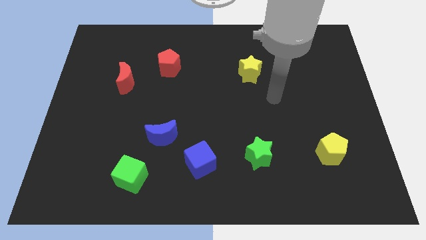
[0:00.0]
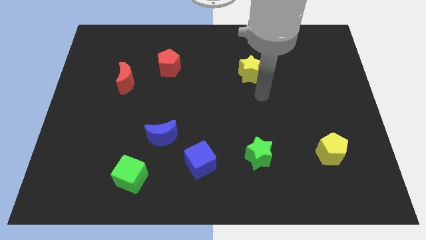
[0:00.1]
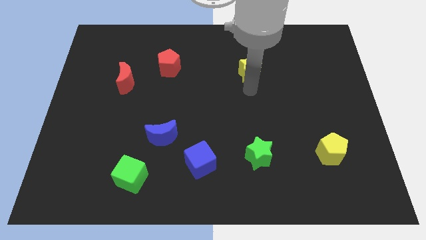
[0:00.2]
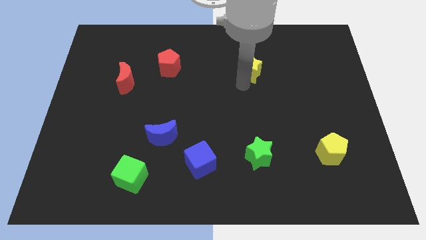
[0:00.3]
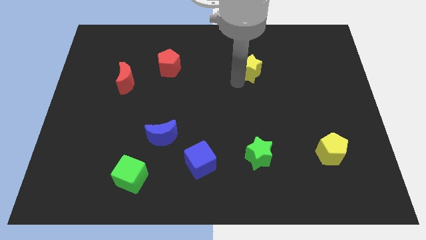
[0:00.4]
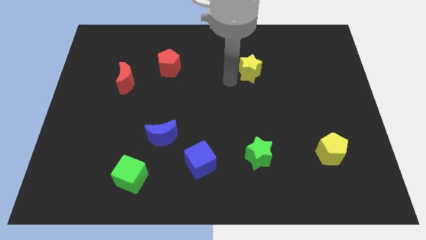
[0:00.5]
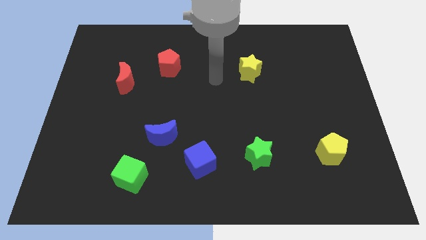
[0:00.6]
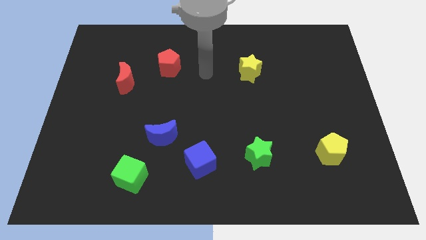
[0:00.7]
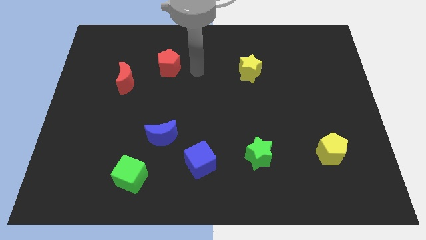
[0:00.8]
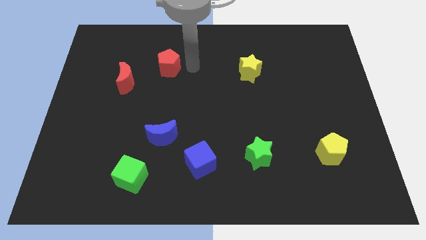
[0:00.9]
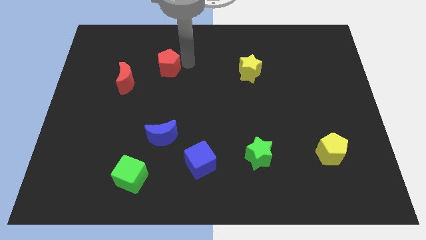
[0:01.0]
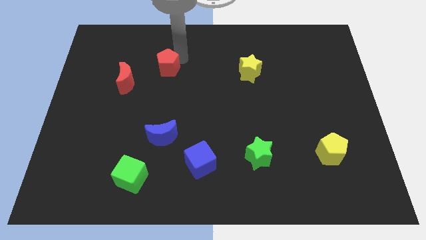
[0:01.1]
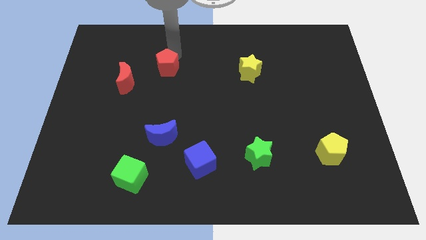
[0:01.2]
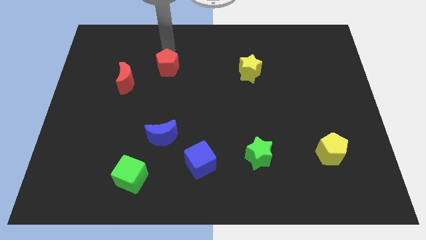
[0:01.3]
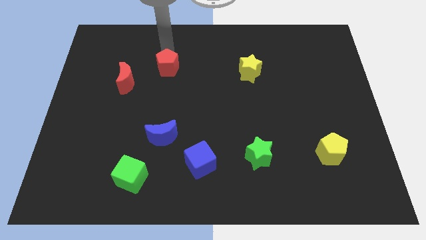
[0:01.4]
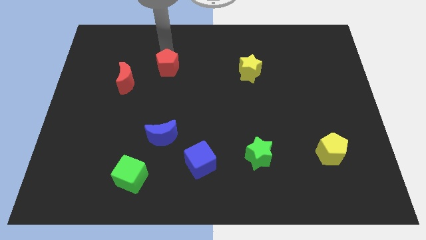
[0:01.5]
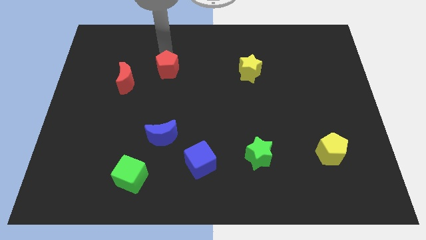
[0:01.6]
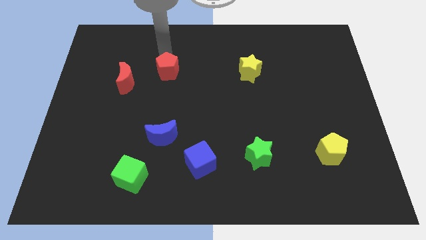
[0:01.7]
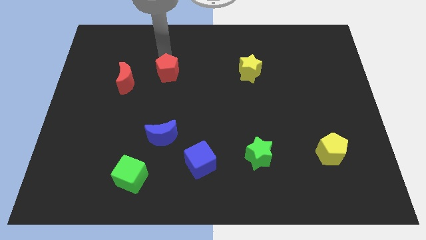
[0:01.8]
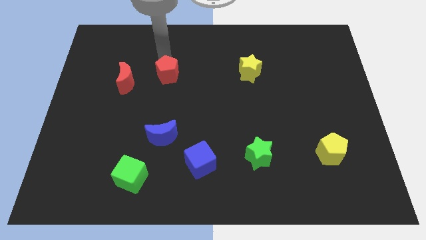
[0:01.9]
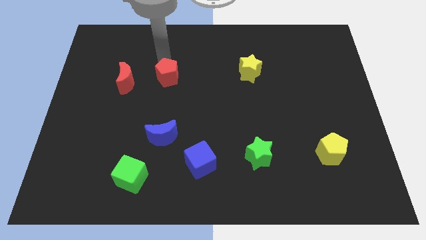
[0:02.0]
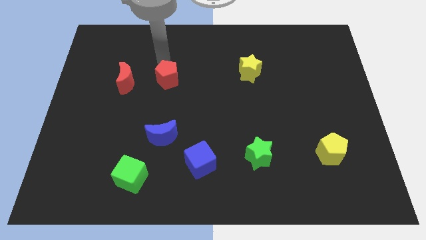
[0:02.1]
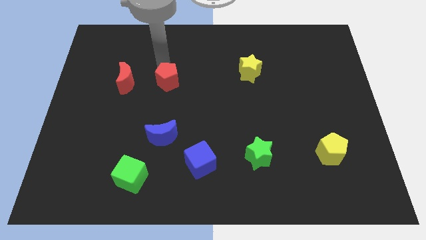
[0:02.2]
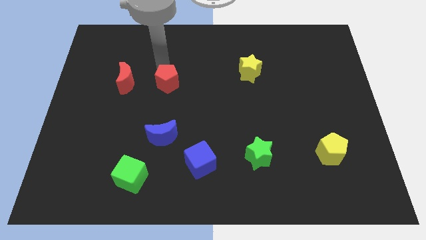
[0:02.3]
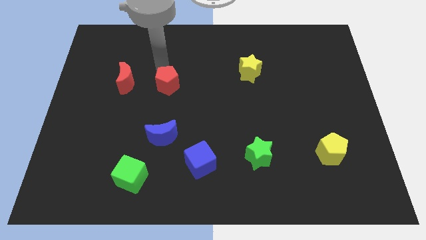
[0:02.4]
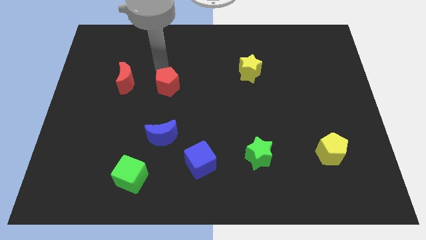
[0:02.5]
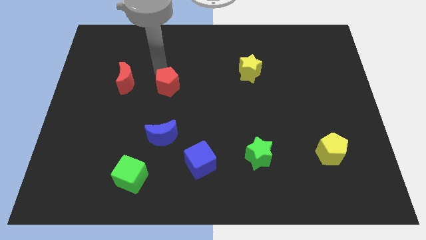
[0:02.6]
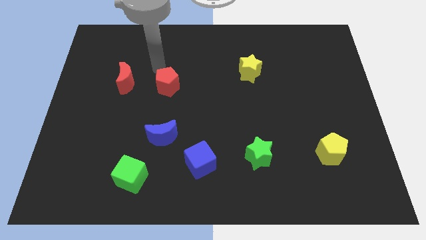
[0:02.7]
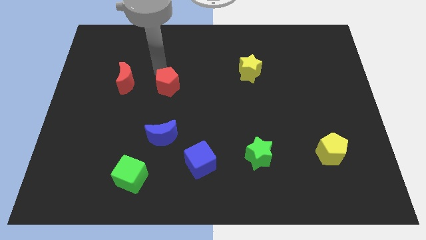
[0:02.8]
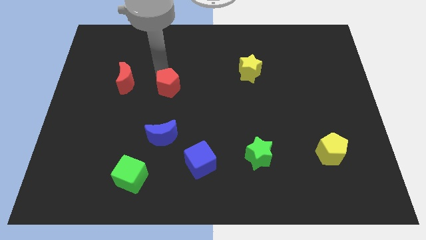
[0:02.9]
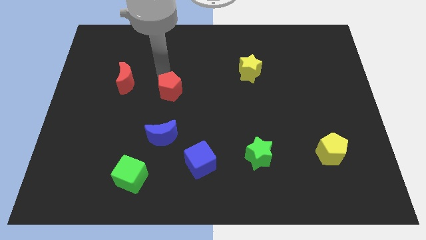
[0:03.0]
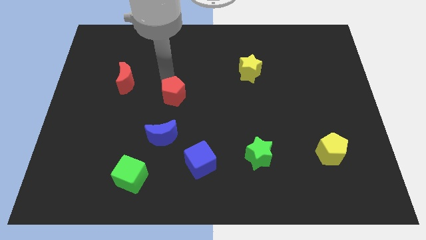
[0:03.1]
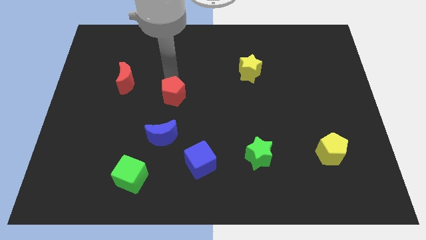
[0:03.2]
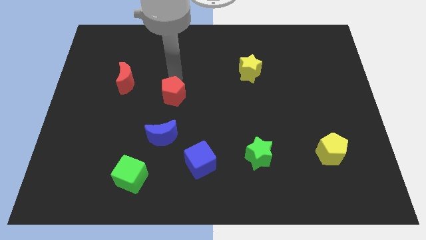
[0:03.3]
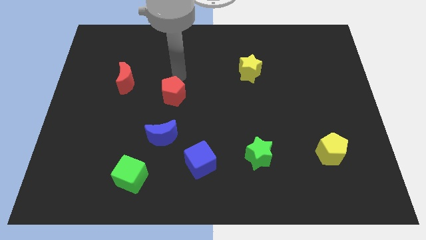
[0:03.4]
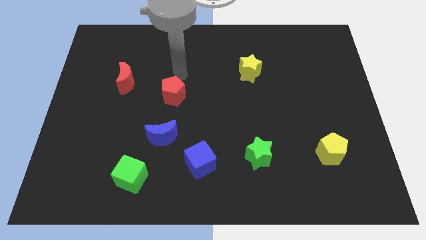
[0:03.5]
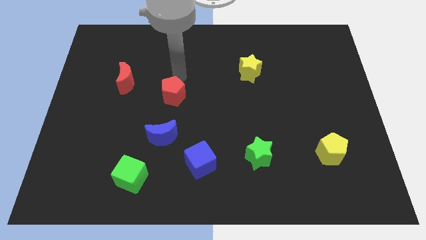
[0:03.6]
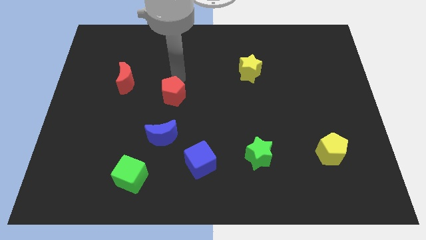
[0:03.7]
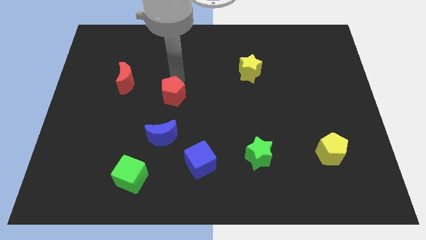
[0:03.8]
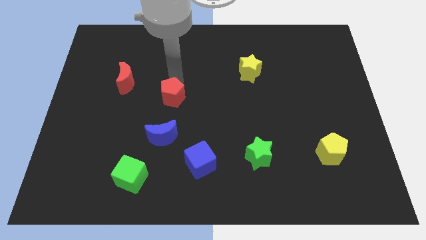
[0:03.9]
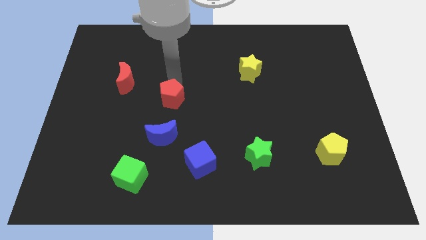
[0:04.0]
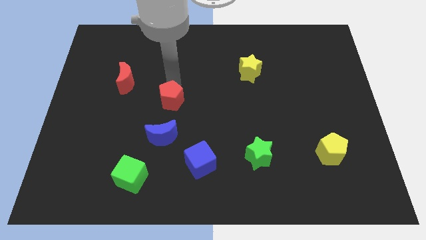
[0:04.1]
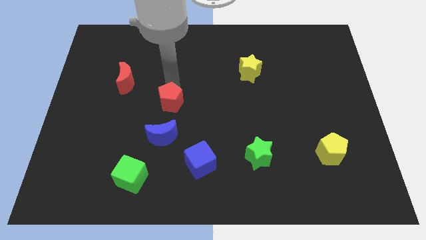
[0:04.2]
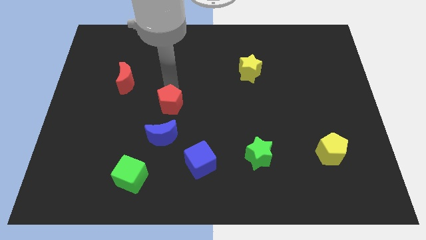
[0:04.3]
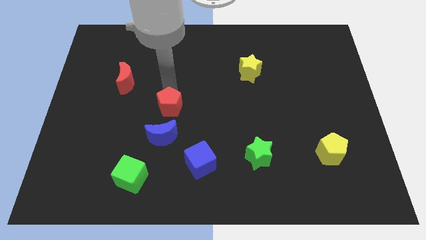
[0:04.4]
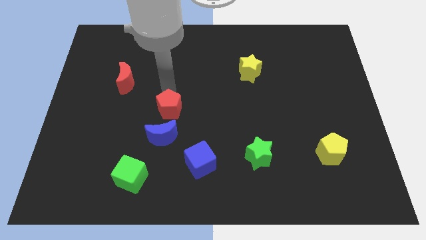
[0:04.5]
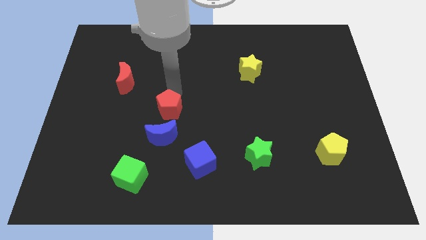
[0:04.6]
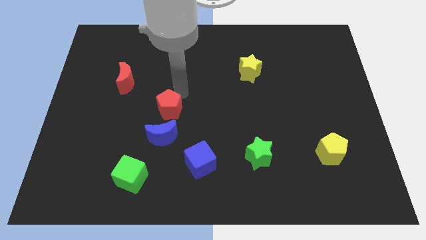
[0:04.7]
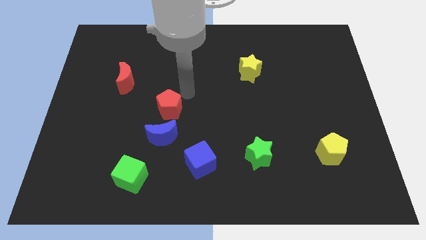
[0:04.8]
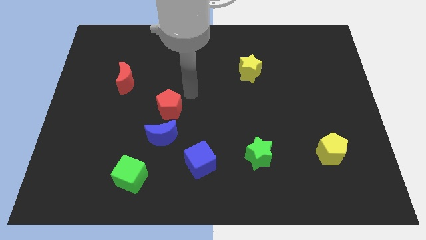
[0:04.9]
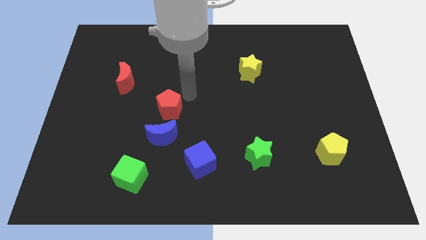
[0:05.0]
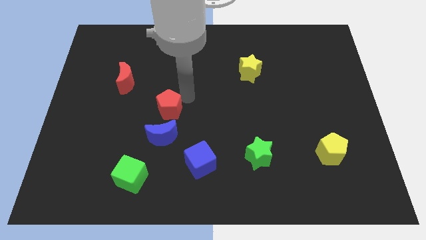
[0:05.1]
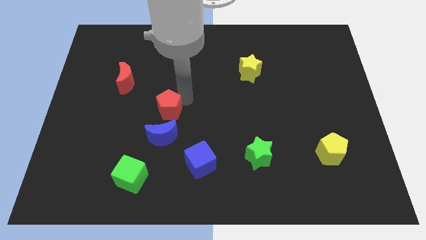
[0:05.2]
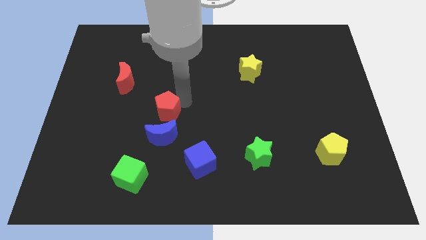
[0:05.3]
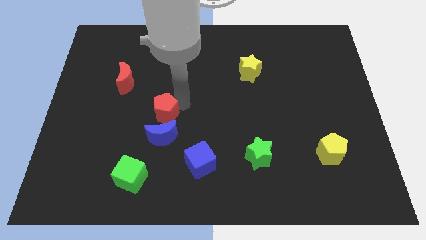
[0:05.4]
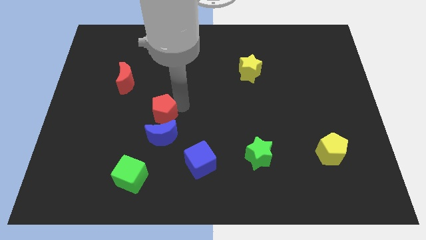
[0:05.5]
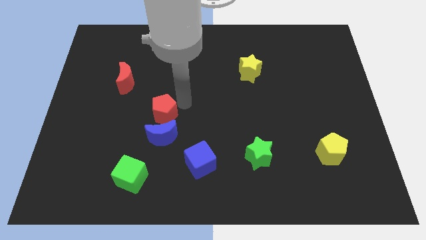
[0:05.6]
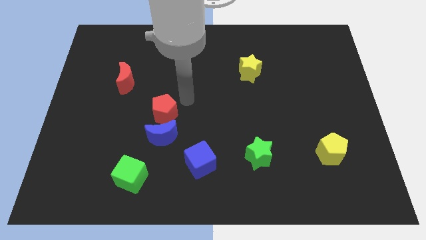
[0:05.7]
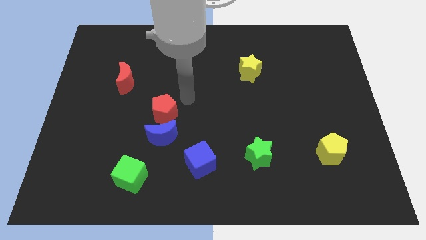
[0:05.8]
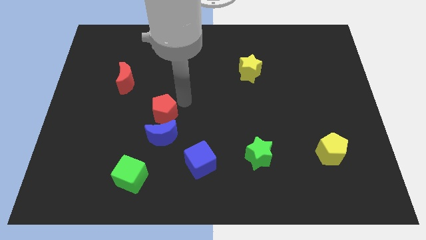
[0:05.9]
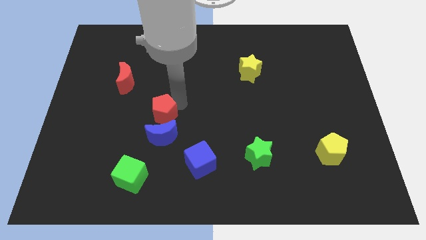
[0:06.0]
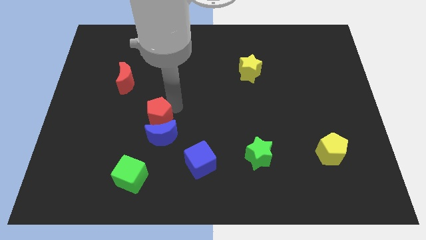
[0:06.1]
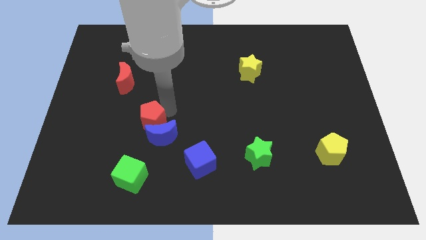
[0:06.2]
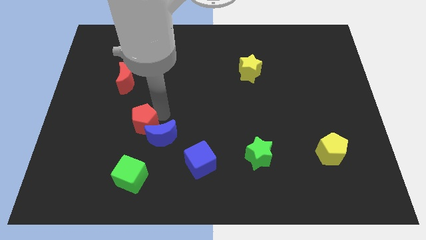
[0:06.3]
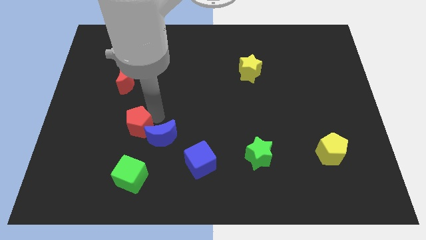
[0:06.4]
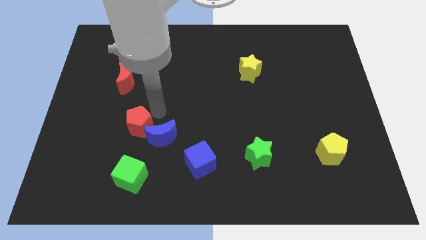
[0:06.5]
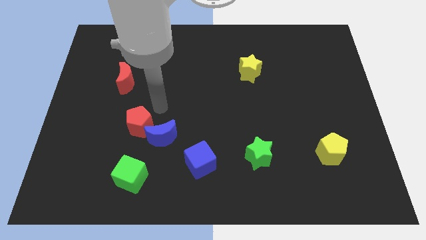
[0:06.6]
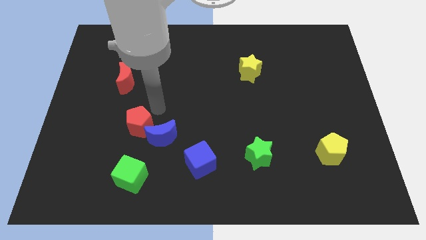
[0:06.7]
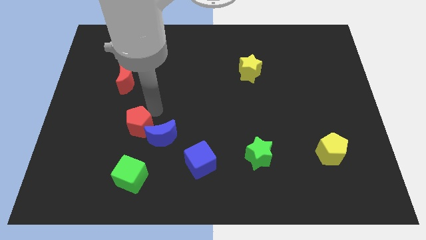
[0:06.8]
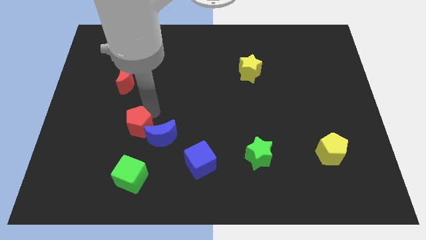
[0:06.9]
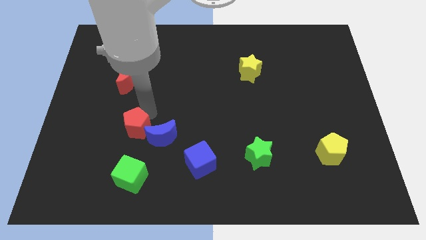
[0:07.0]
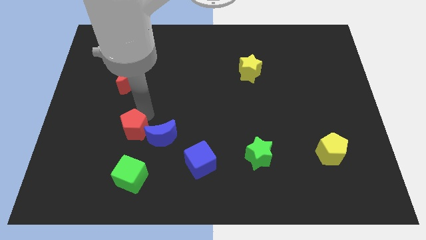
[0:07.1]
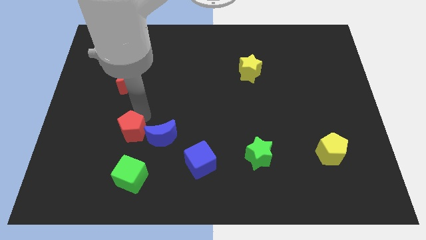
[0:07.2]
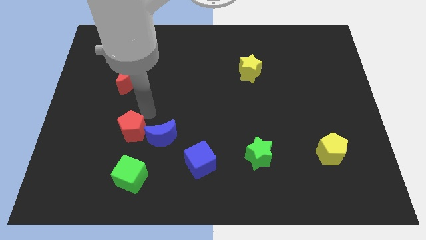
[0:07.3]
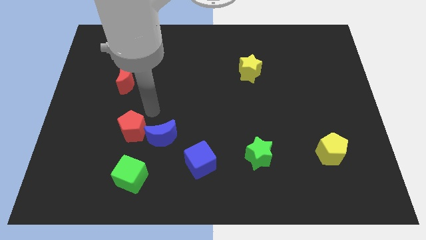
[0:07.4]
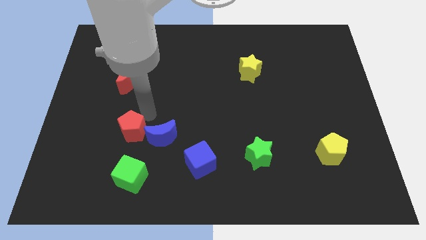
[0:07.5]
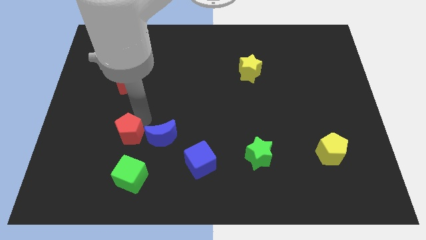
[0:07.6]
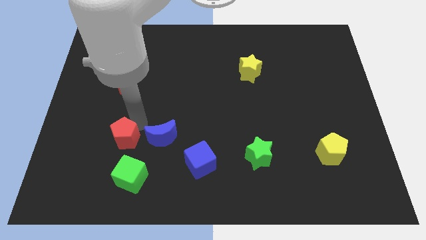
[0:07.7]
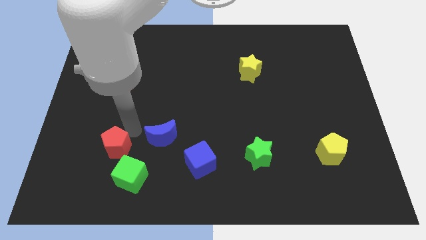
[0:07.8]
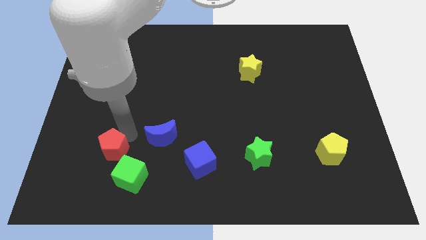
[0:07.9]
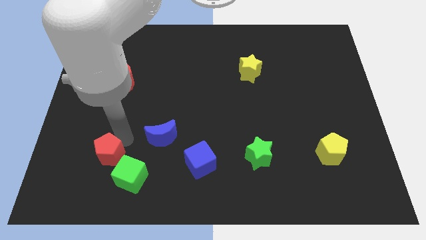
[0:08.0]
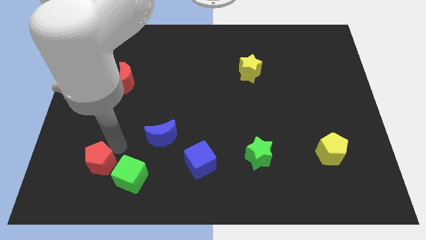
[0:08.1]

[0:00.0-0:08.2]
push the red pentagon just left of the green cube
